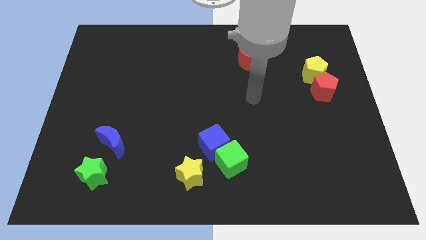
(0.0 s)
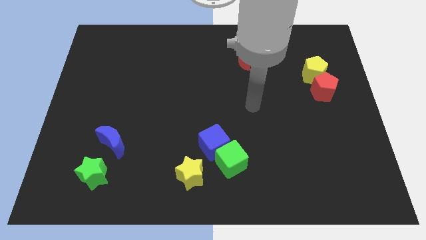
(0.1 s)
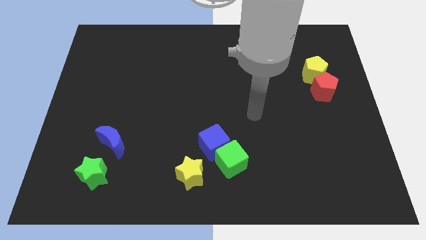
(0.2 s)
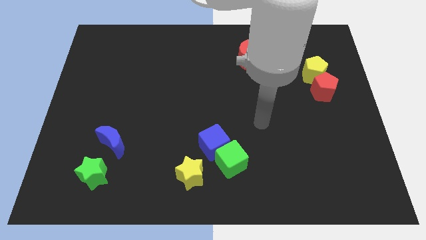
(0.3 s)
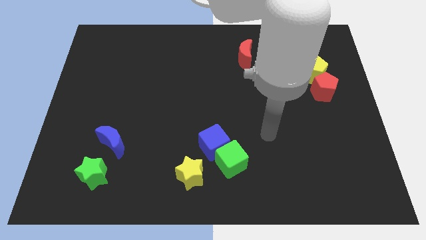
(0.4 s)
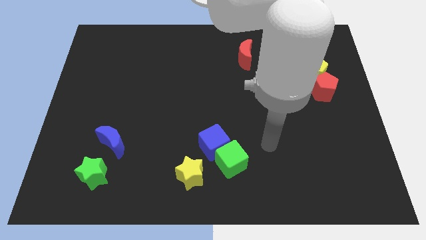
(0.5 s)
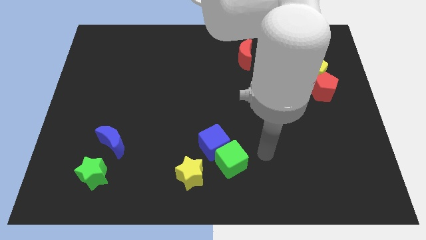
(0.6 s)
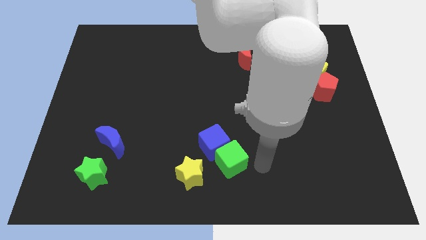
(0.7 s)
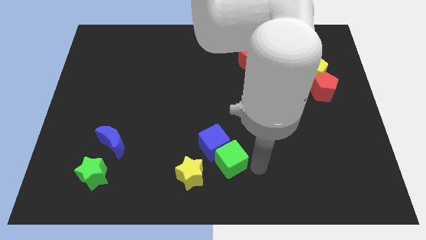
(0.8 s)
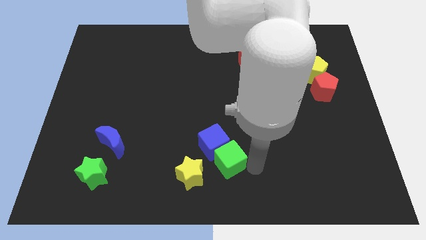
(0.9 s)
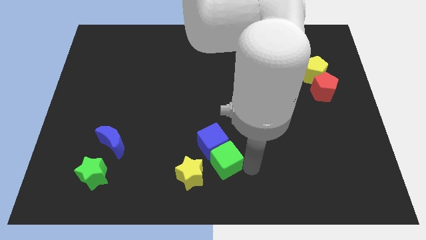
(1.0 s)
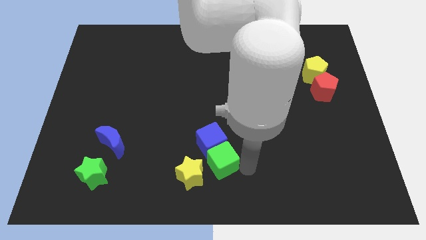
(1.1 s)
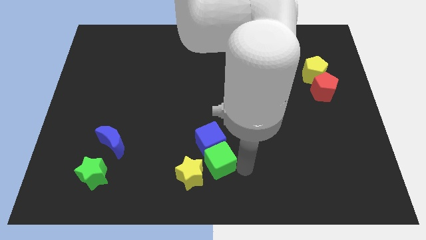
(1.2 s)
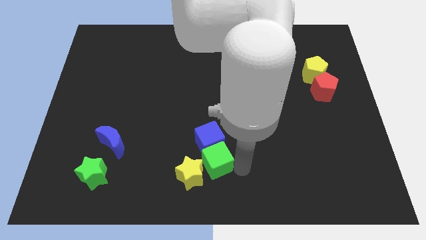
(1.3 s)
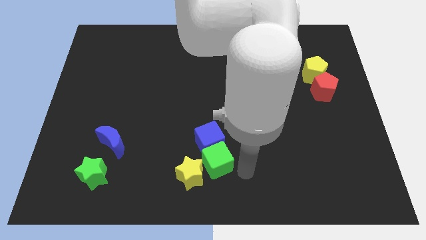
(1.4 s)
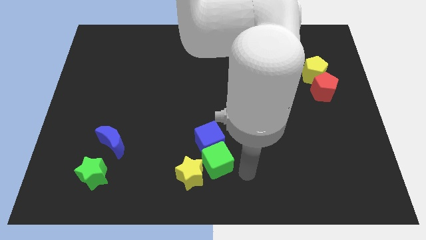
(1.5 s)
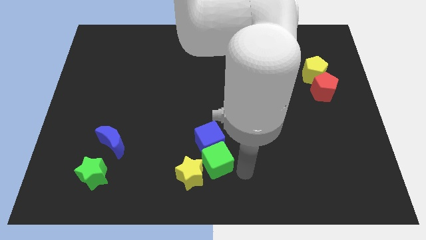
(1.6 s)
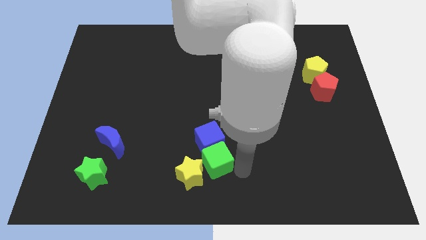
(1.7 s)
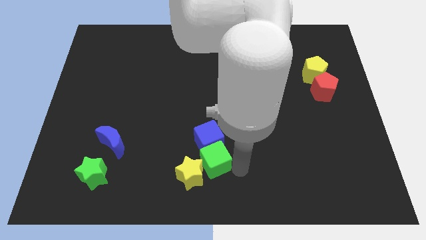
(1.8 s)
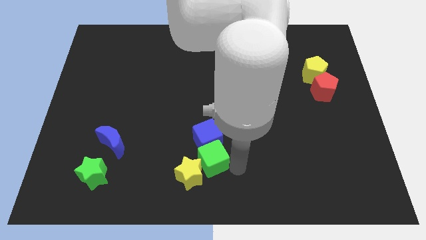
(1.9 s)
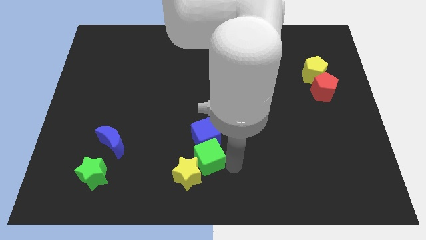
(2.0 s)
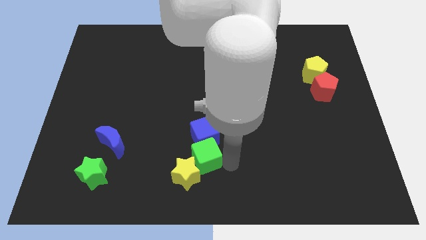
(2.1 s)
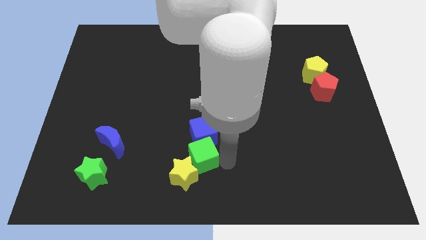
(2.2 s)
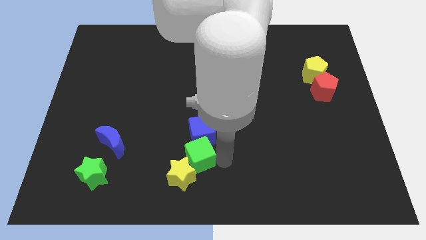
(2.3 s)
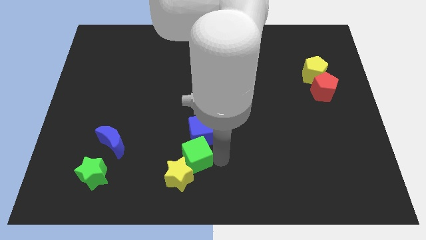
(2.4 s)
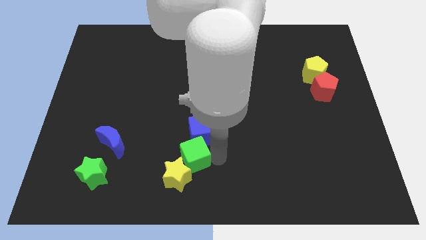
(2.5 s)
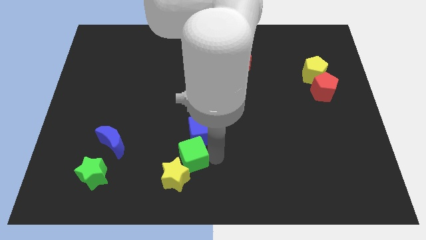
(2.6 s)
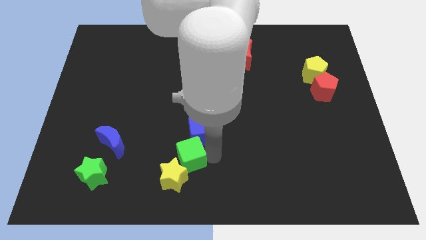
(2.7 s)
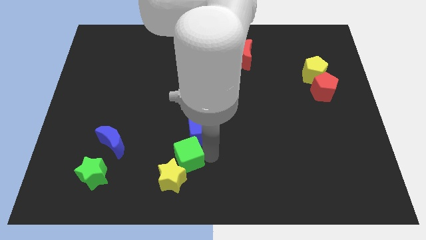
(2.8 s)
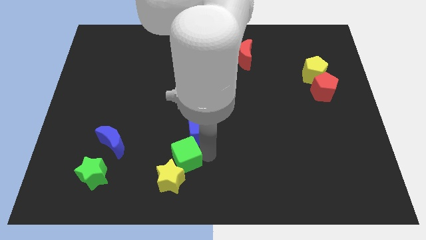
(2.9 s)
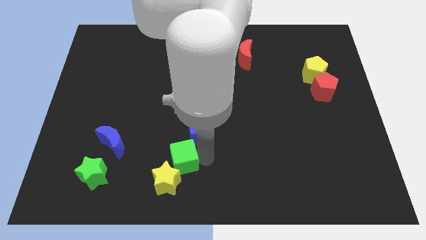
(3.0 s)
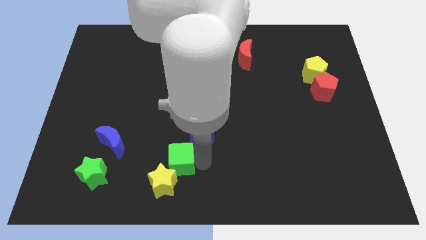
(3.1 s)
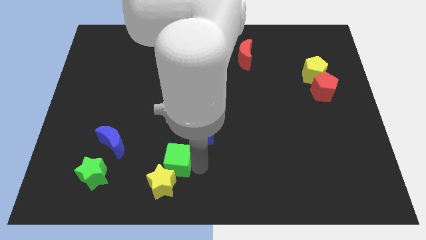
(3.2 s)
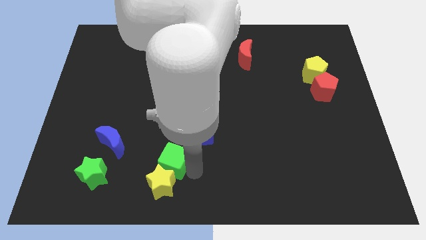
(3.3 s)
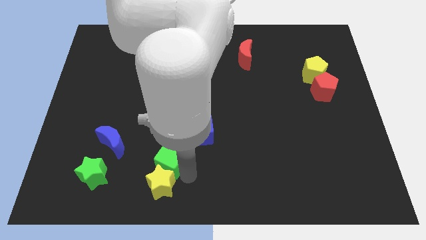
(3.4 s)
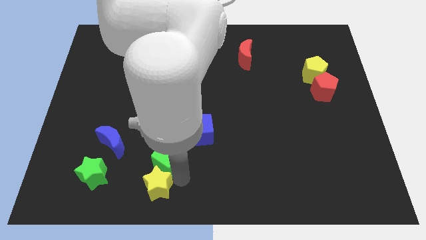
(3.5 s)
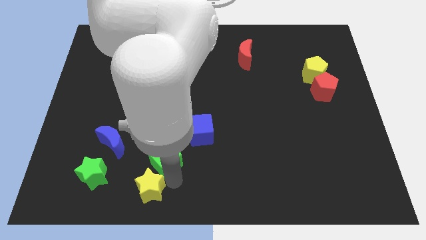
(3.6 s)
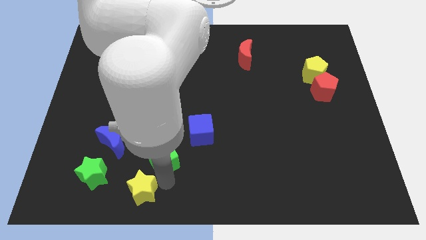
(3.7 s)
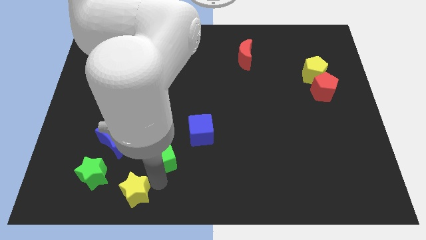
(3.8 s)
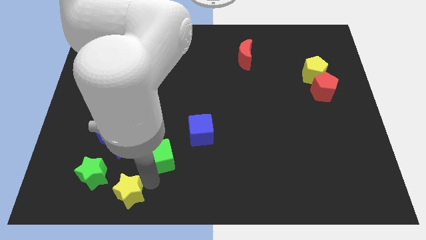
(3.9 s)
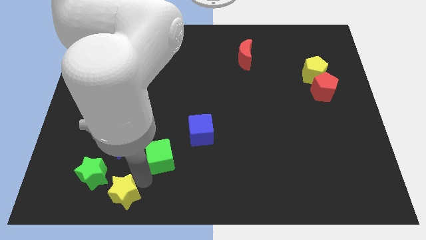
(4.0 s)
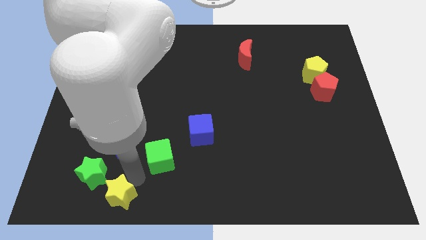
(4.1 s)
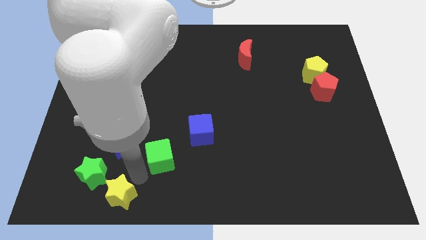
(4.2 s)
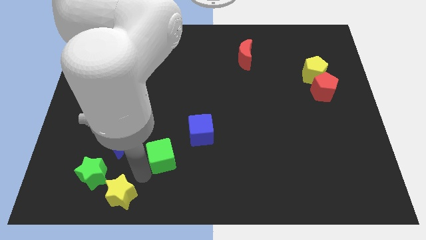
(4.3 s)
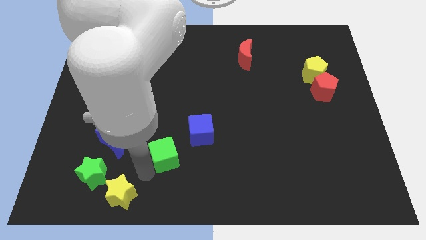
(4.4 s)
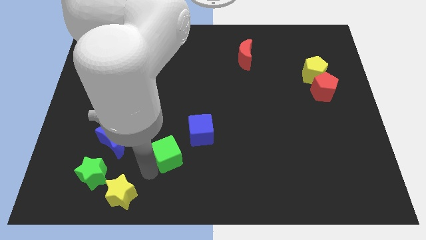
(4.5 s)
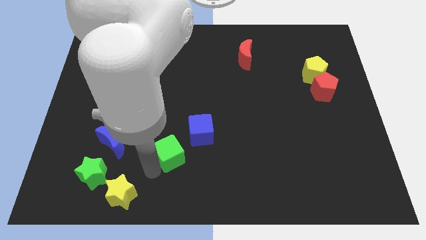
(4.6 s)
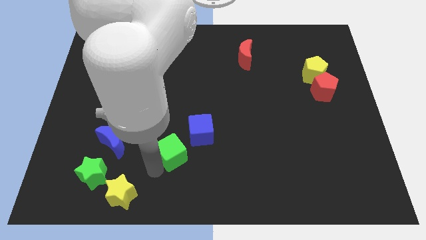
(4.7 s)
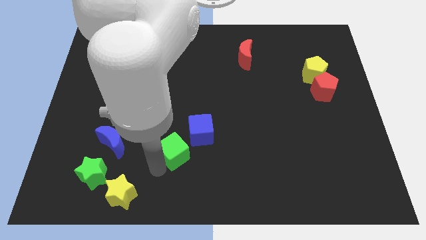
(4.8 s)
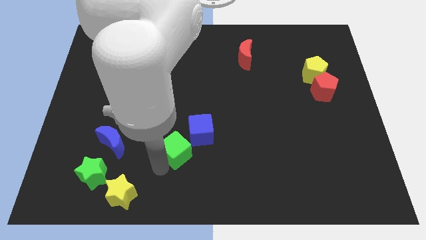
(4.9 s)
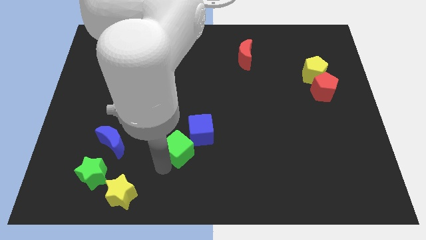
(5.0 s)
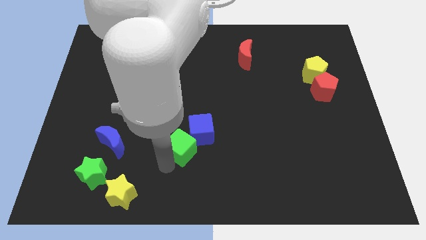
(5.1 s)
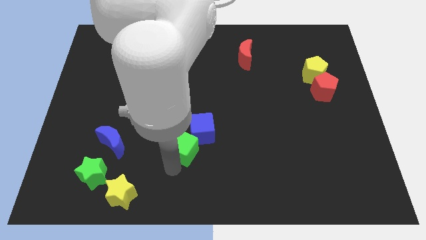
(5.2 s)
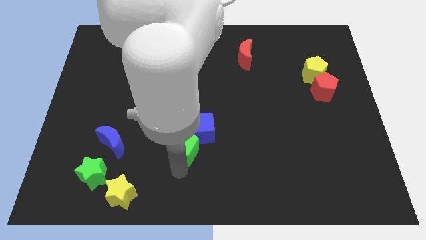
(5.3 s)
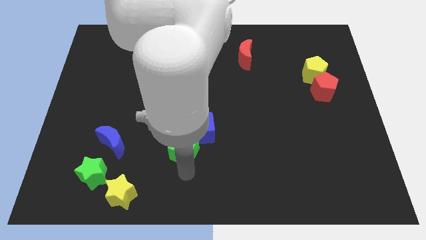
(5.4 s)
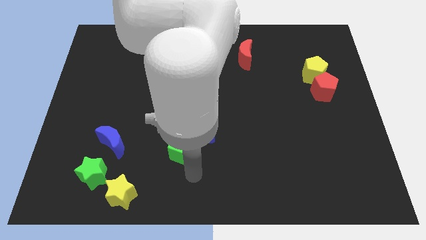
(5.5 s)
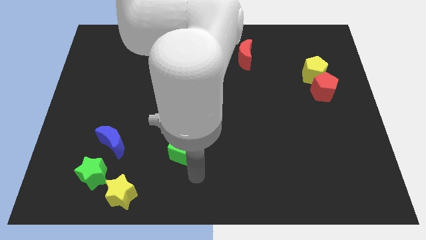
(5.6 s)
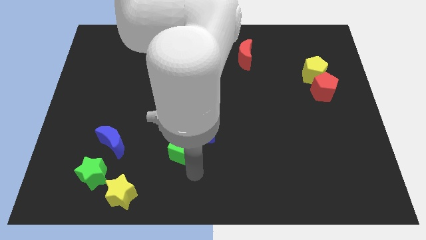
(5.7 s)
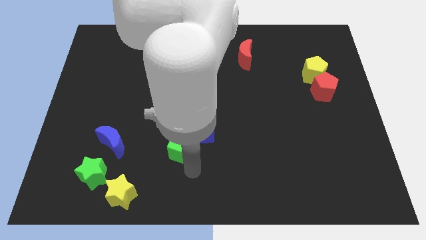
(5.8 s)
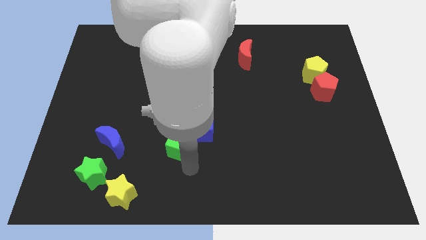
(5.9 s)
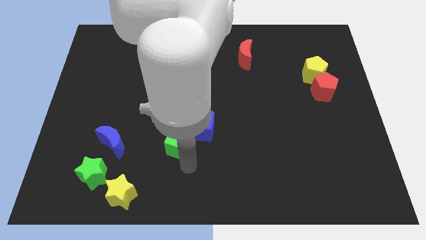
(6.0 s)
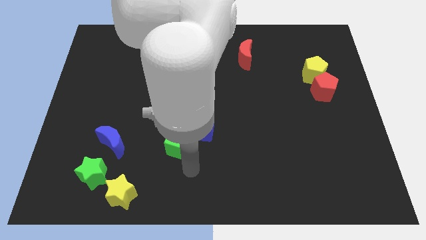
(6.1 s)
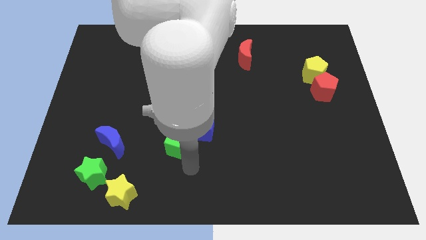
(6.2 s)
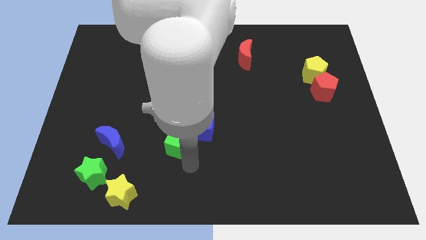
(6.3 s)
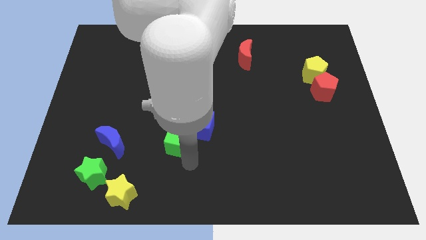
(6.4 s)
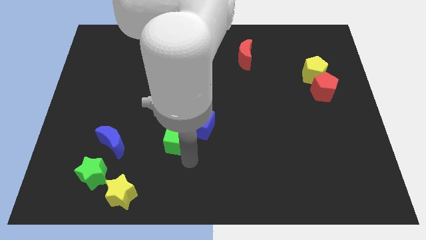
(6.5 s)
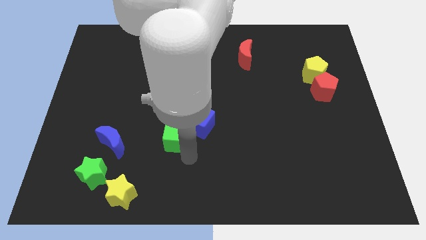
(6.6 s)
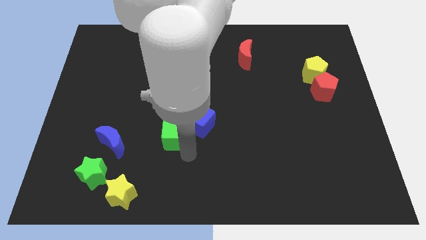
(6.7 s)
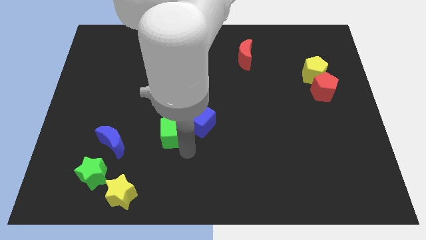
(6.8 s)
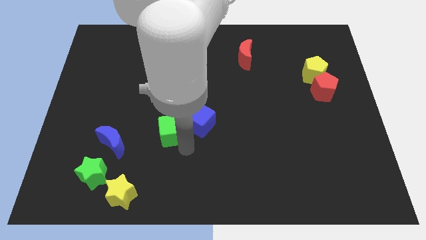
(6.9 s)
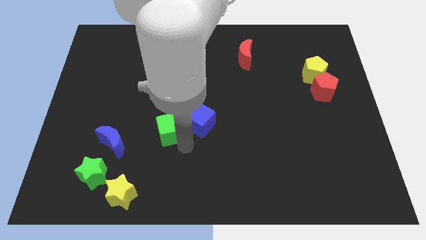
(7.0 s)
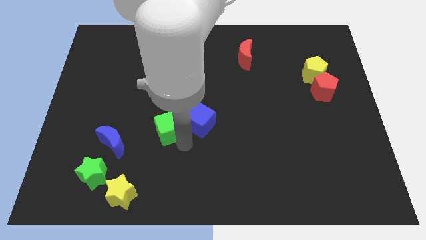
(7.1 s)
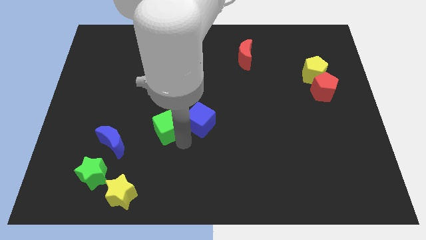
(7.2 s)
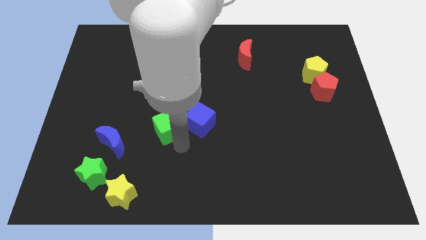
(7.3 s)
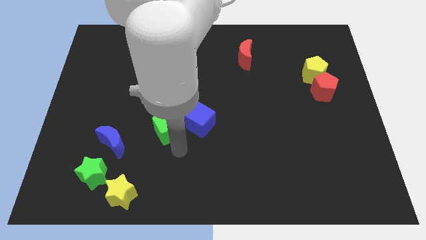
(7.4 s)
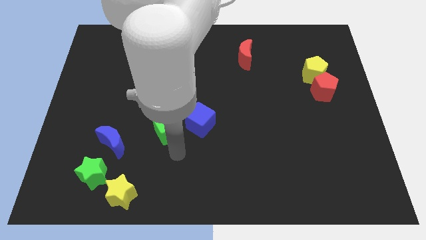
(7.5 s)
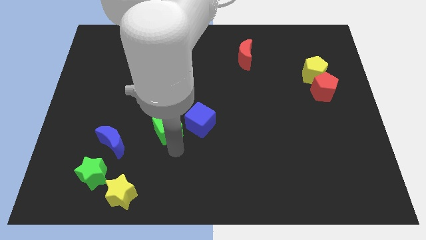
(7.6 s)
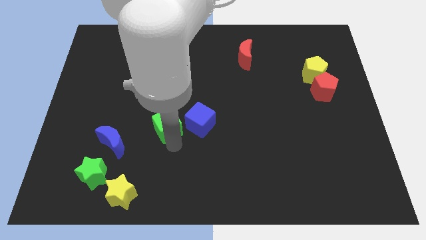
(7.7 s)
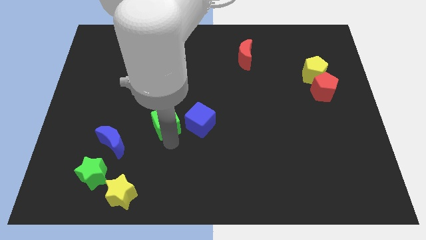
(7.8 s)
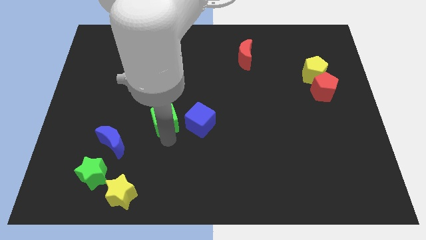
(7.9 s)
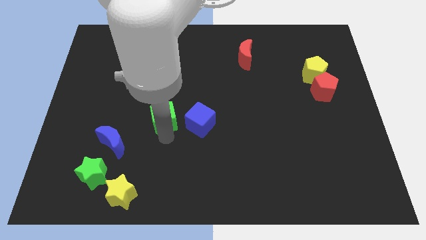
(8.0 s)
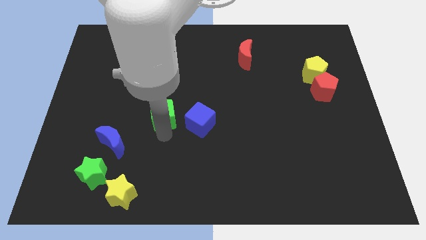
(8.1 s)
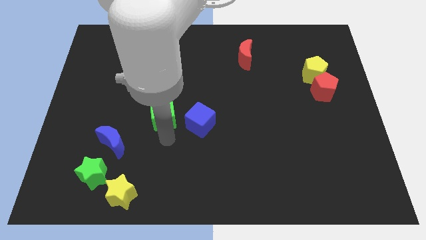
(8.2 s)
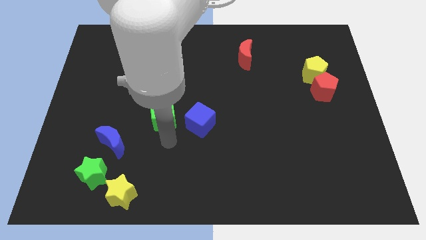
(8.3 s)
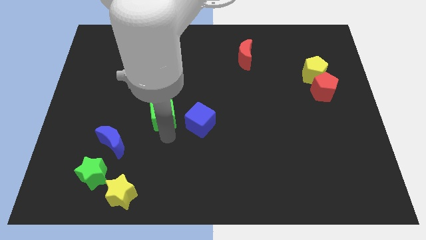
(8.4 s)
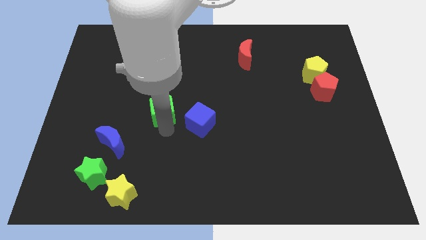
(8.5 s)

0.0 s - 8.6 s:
move the green cube diagonally up and to the left
